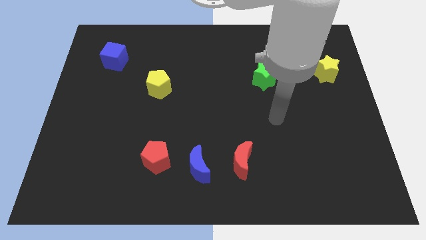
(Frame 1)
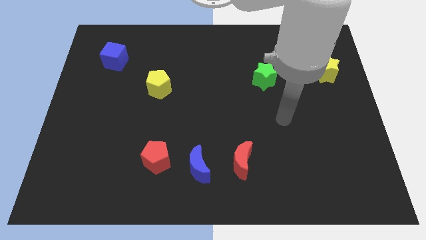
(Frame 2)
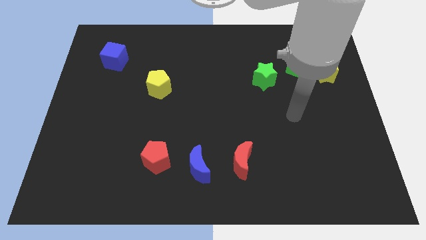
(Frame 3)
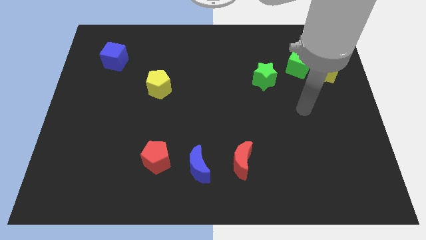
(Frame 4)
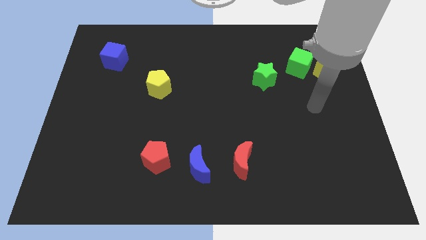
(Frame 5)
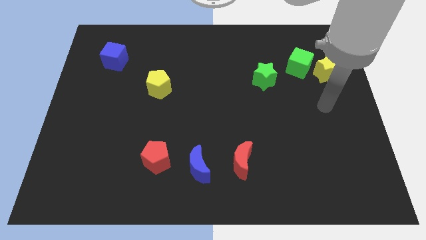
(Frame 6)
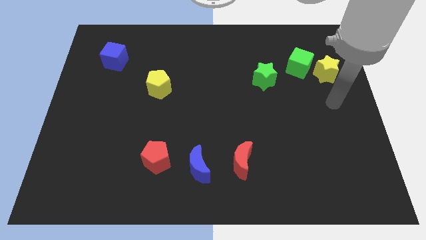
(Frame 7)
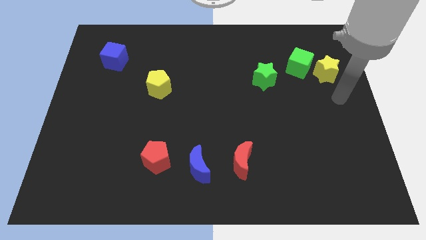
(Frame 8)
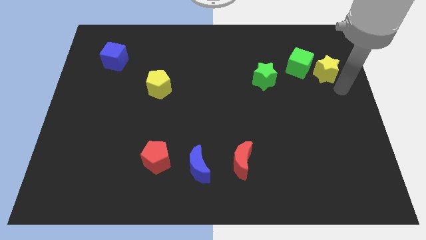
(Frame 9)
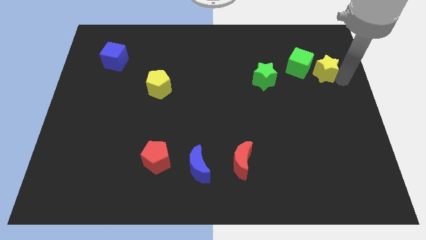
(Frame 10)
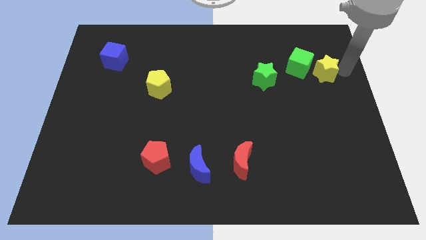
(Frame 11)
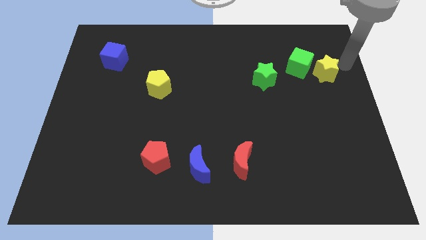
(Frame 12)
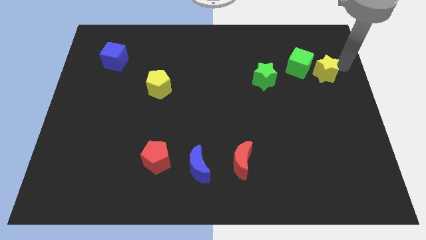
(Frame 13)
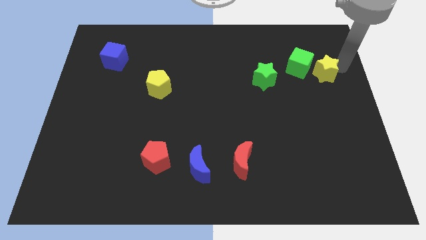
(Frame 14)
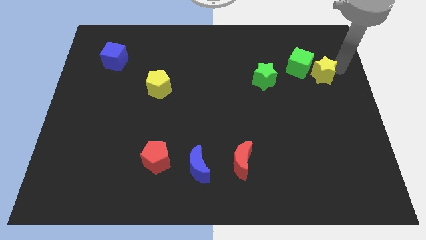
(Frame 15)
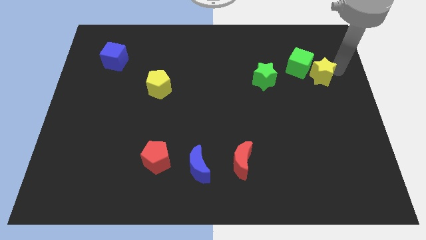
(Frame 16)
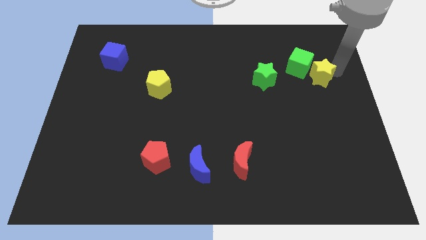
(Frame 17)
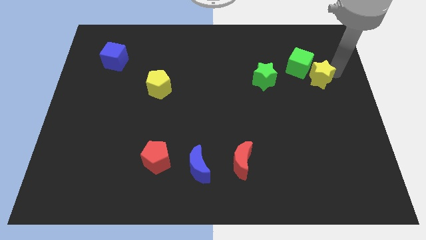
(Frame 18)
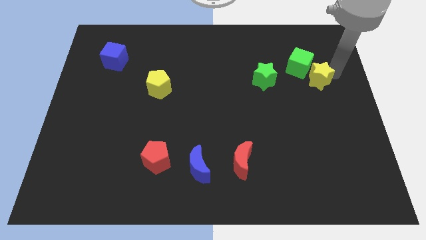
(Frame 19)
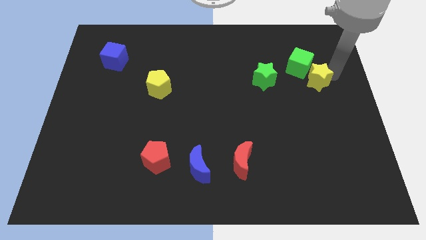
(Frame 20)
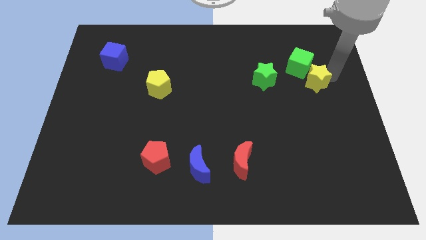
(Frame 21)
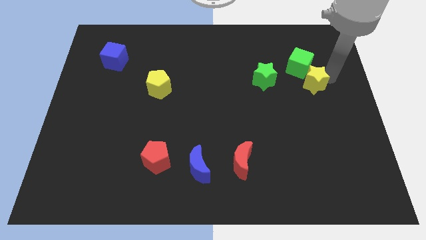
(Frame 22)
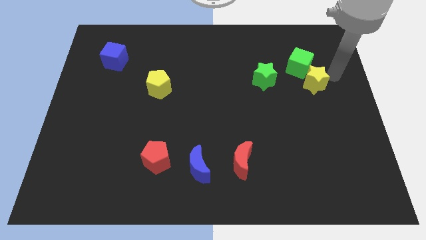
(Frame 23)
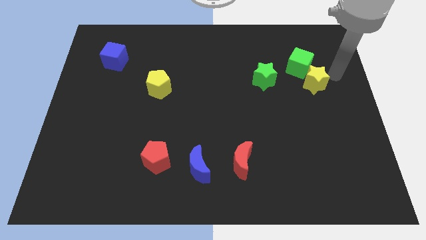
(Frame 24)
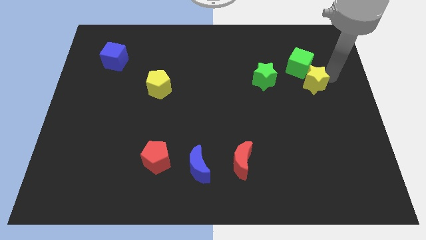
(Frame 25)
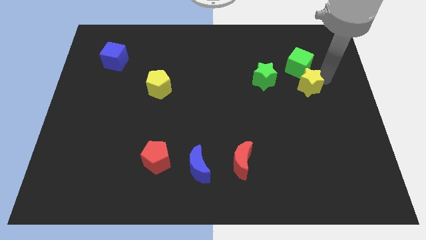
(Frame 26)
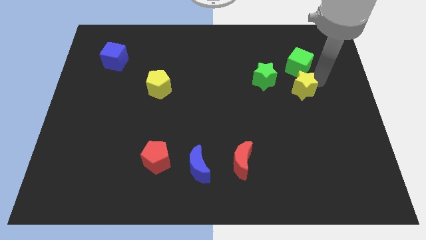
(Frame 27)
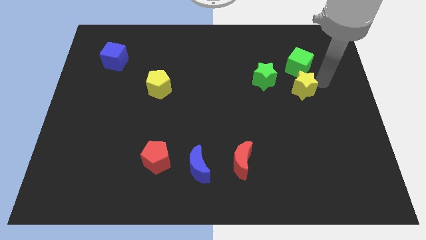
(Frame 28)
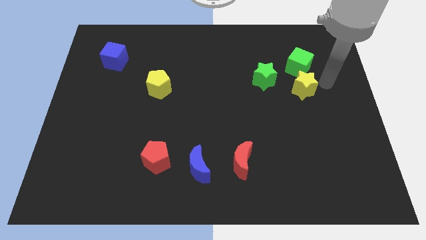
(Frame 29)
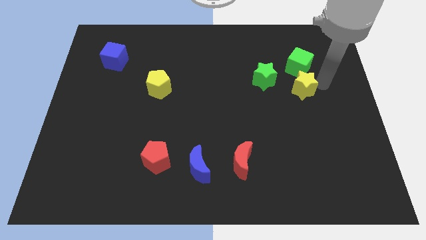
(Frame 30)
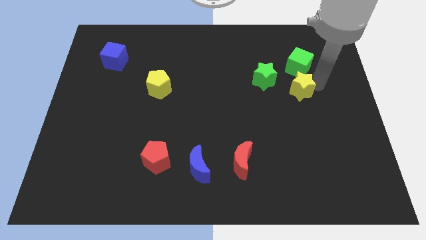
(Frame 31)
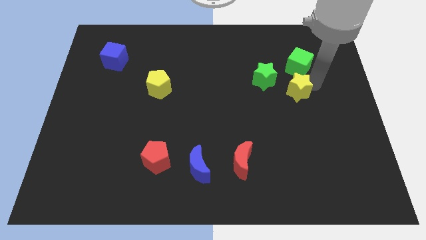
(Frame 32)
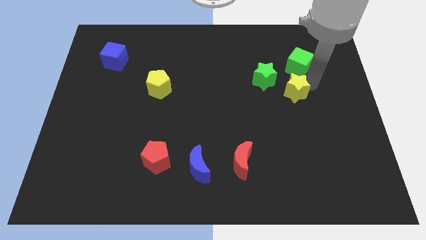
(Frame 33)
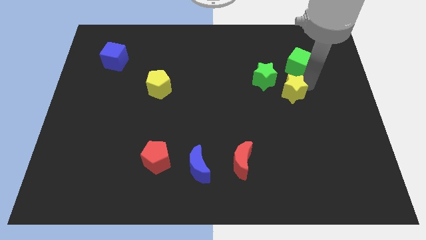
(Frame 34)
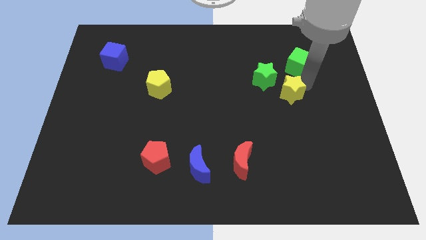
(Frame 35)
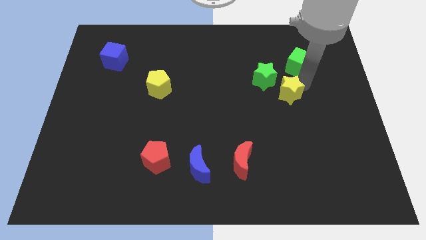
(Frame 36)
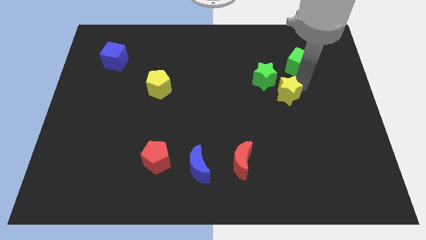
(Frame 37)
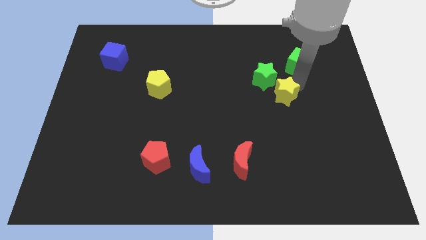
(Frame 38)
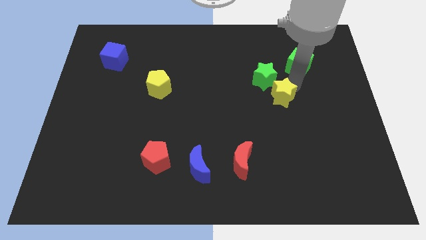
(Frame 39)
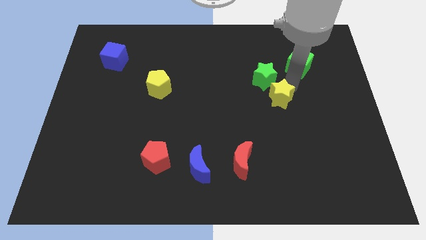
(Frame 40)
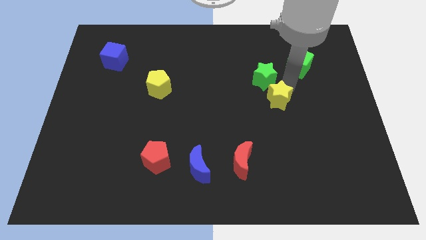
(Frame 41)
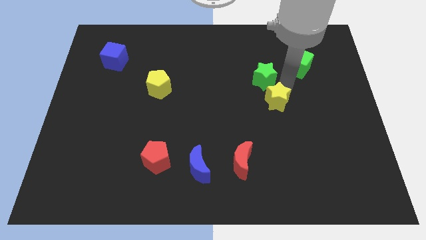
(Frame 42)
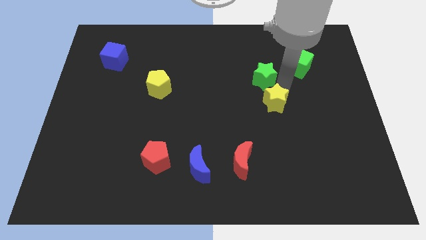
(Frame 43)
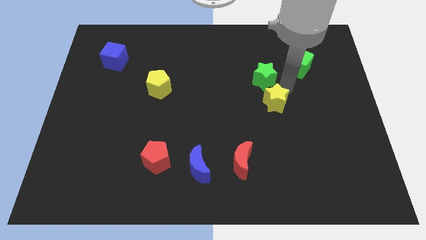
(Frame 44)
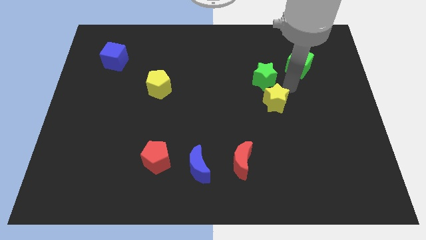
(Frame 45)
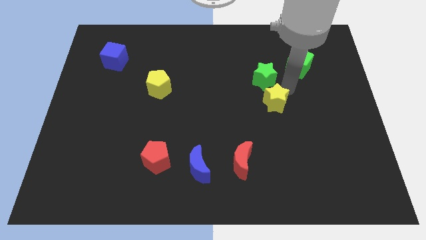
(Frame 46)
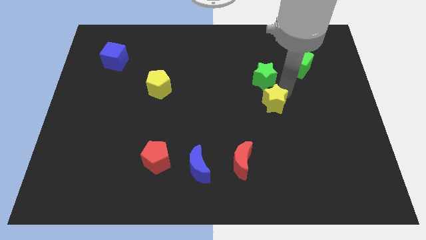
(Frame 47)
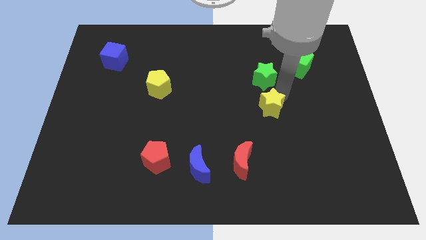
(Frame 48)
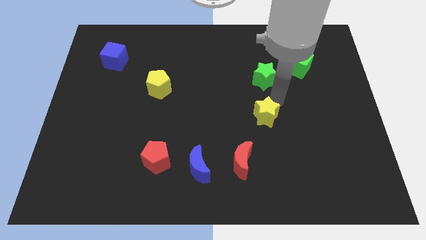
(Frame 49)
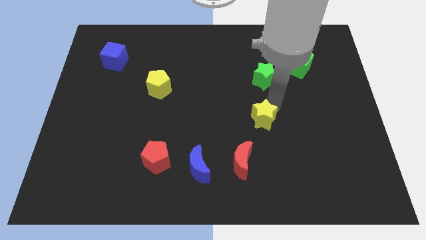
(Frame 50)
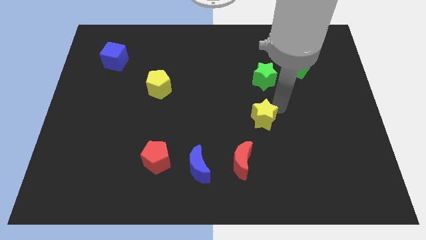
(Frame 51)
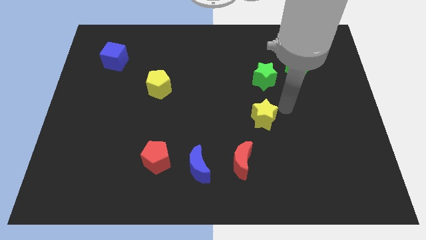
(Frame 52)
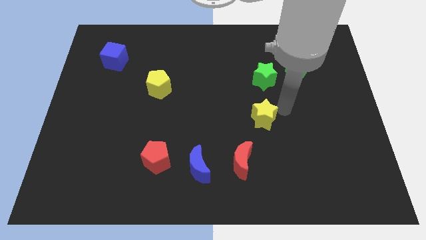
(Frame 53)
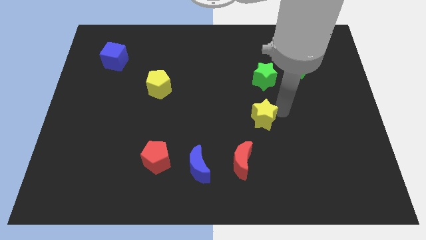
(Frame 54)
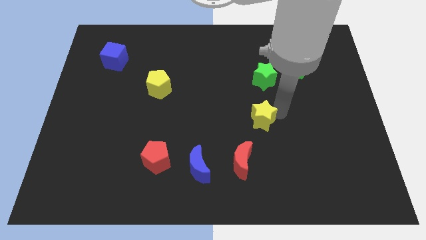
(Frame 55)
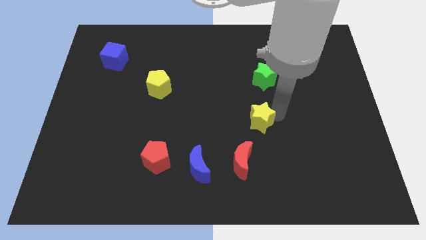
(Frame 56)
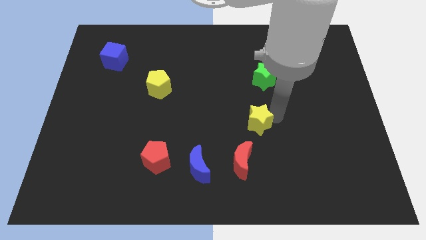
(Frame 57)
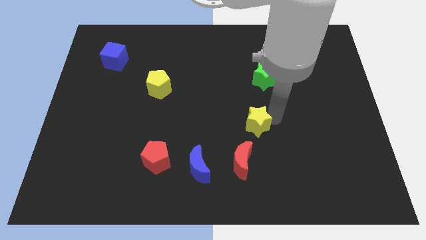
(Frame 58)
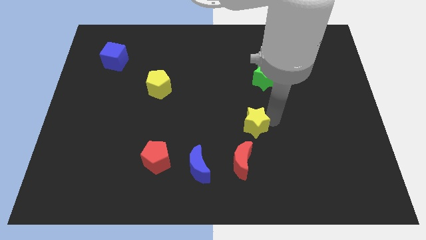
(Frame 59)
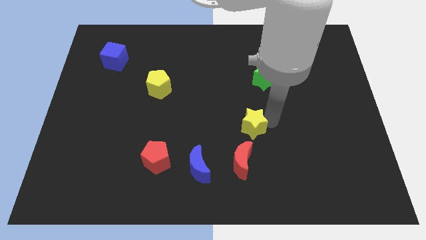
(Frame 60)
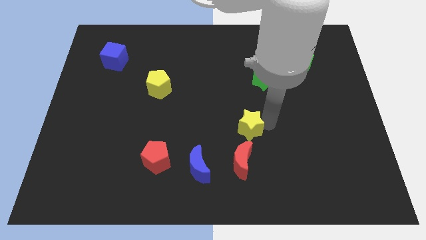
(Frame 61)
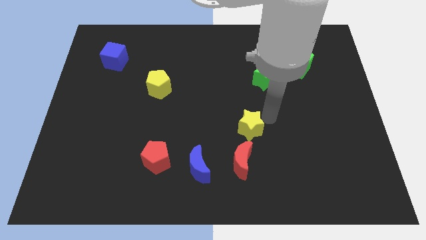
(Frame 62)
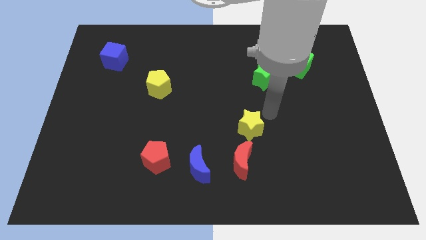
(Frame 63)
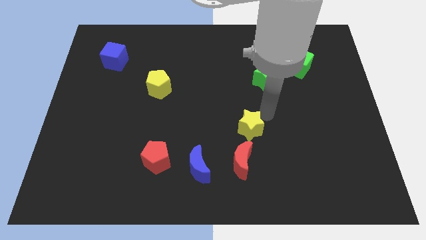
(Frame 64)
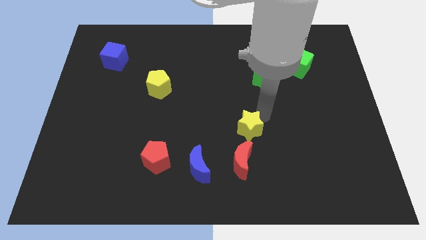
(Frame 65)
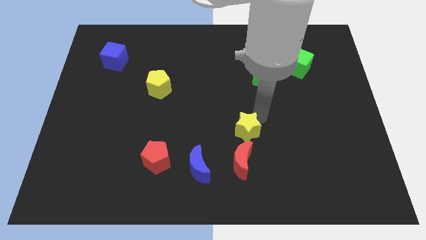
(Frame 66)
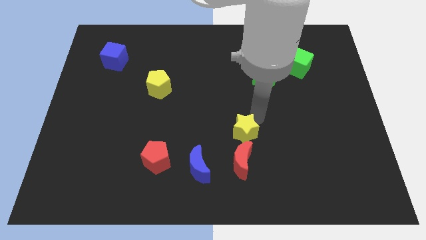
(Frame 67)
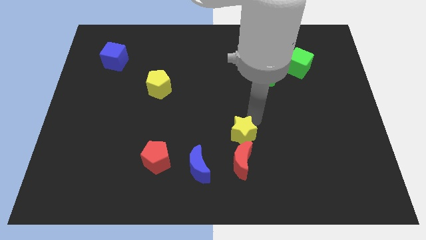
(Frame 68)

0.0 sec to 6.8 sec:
move the yellow star to the top right of the blue moon
